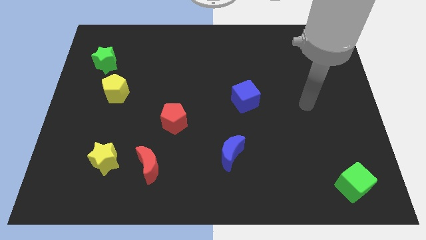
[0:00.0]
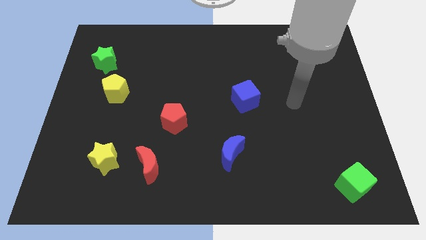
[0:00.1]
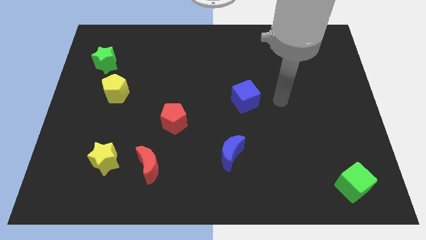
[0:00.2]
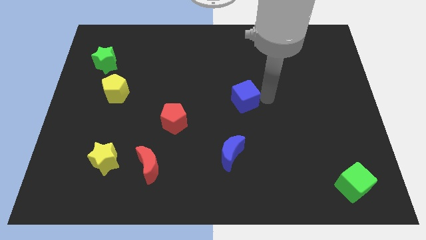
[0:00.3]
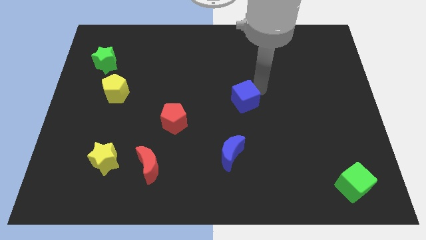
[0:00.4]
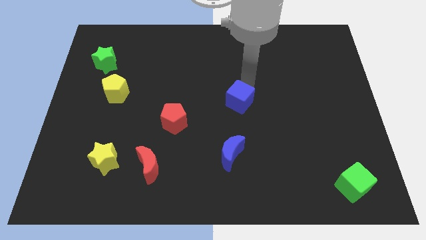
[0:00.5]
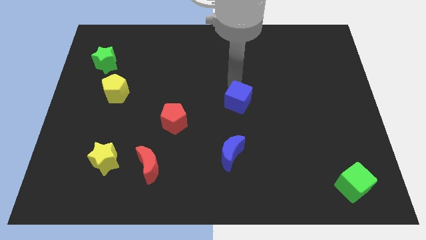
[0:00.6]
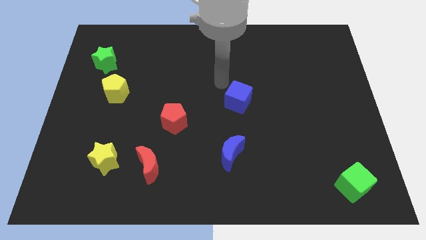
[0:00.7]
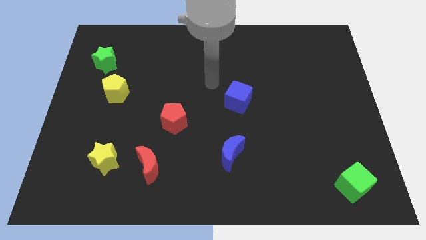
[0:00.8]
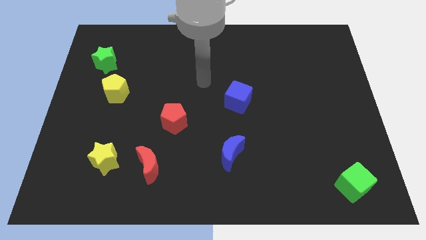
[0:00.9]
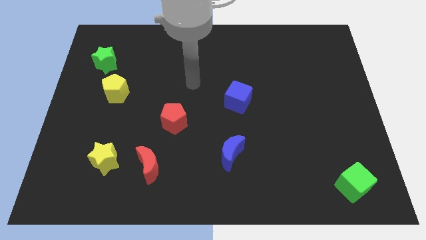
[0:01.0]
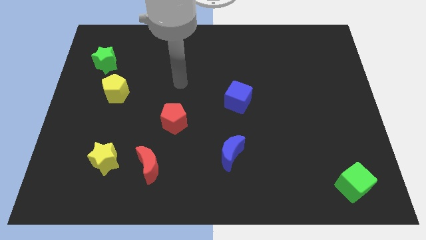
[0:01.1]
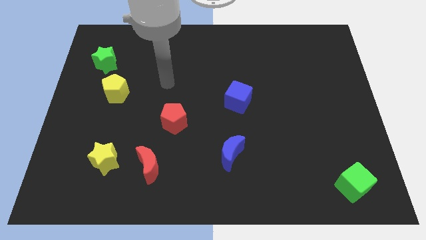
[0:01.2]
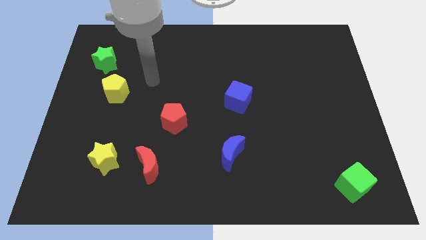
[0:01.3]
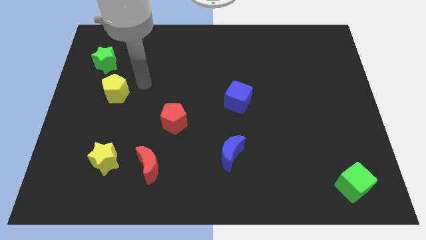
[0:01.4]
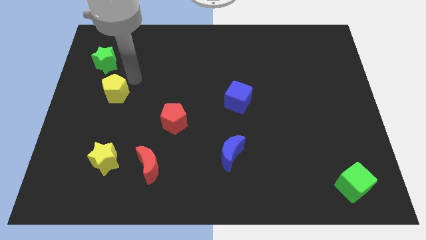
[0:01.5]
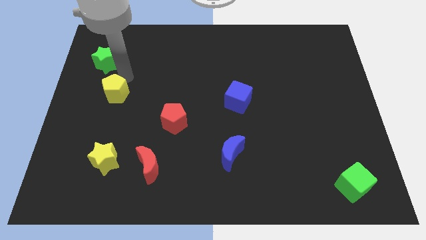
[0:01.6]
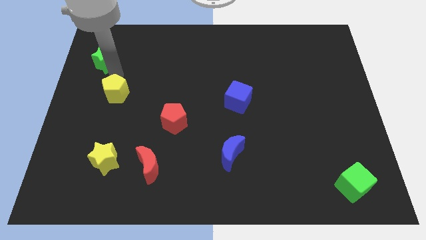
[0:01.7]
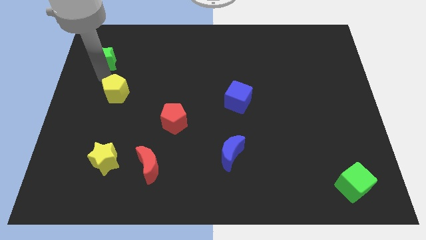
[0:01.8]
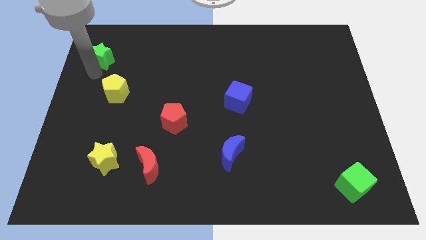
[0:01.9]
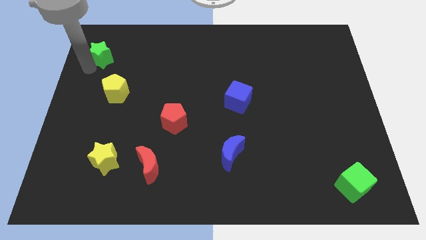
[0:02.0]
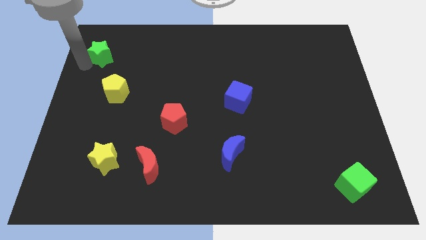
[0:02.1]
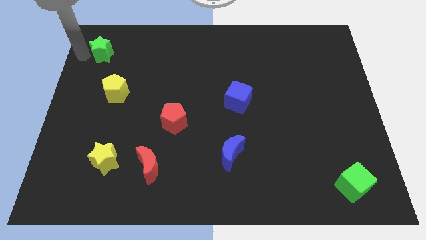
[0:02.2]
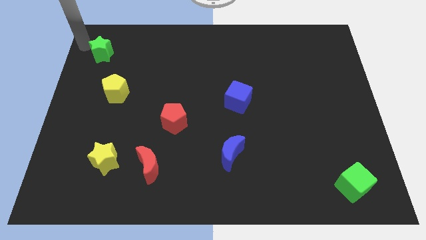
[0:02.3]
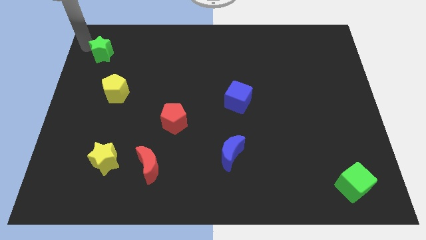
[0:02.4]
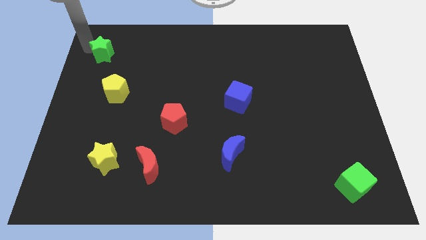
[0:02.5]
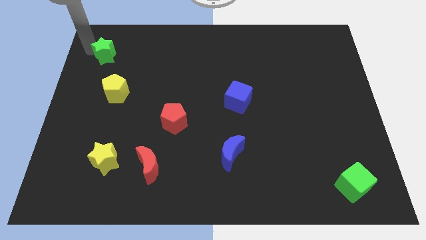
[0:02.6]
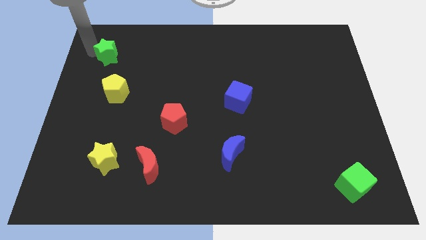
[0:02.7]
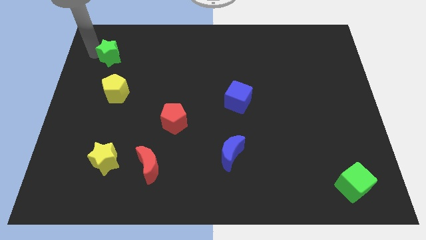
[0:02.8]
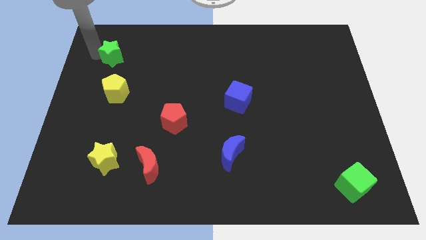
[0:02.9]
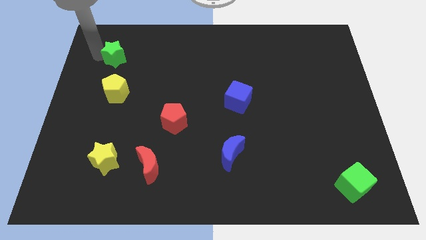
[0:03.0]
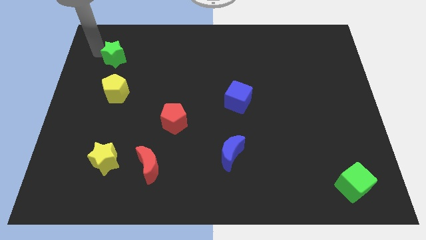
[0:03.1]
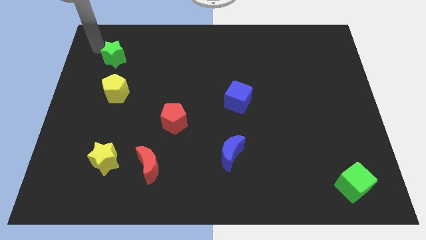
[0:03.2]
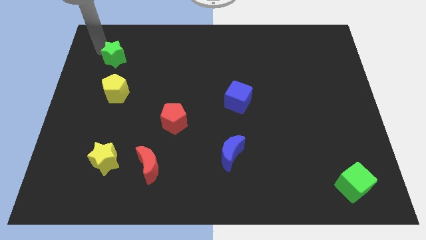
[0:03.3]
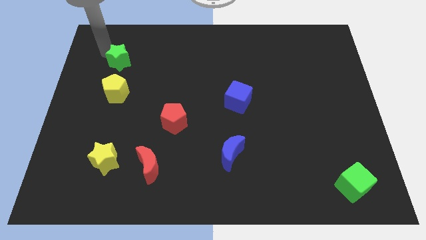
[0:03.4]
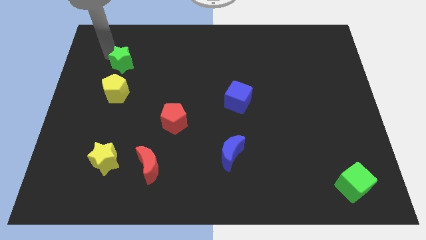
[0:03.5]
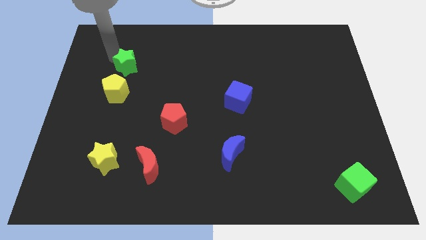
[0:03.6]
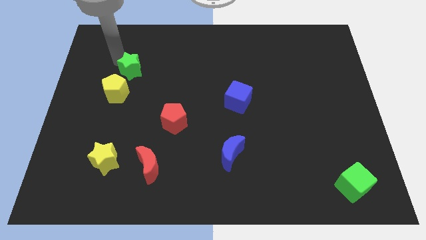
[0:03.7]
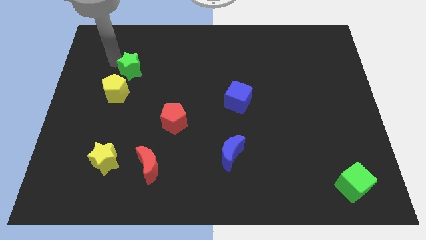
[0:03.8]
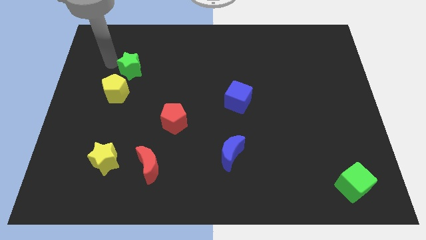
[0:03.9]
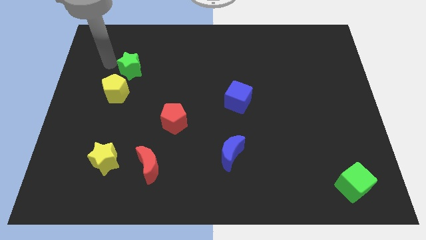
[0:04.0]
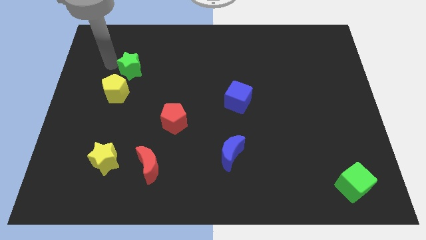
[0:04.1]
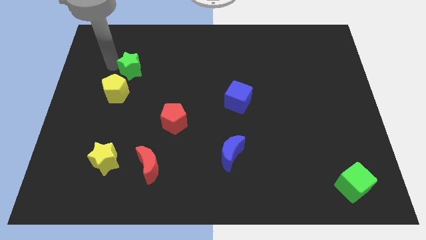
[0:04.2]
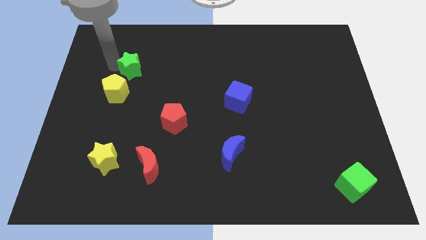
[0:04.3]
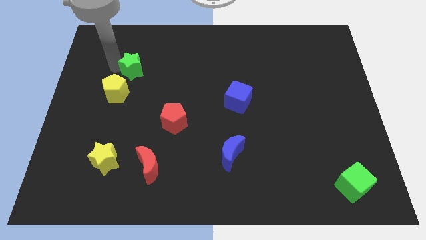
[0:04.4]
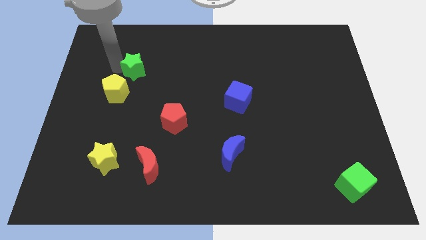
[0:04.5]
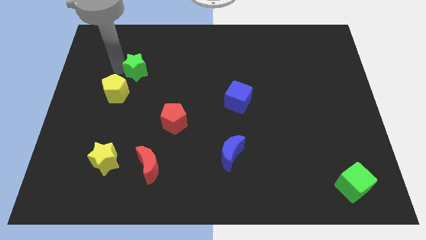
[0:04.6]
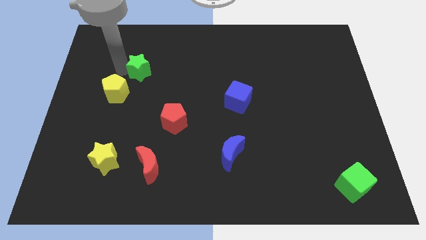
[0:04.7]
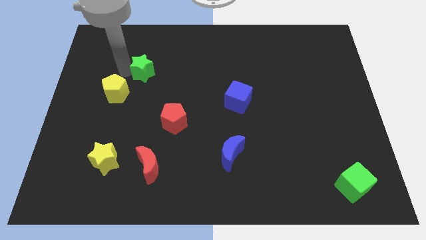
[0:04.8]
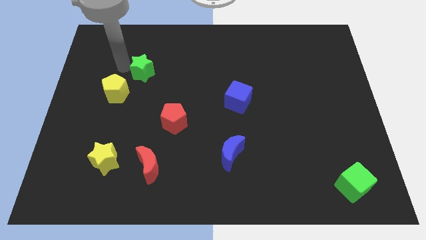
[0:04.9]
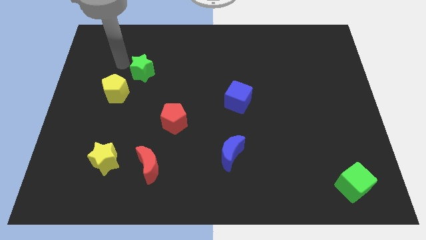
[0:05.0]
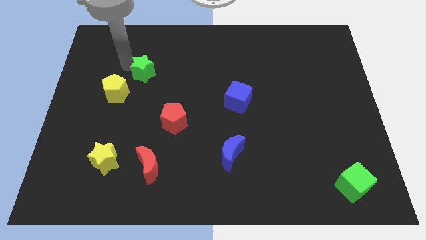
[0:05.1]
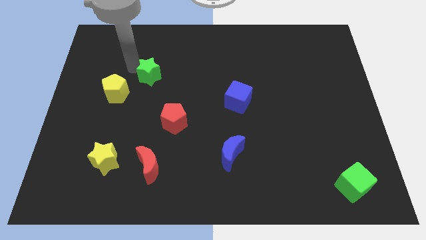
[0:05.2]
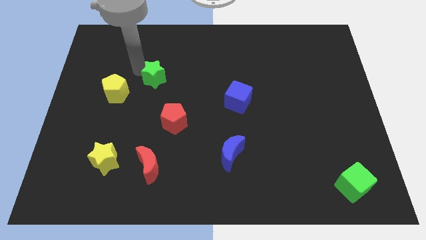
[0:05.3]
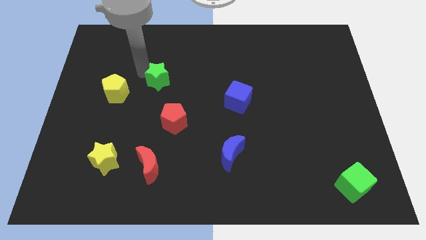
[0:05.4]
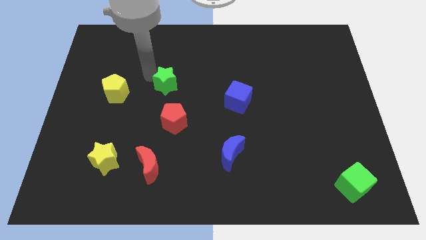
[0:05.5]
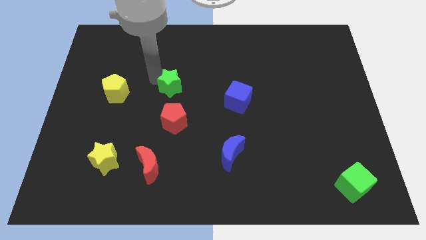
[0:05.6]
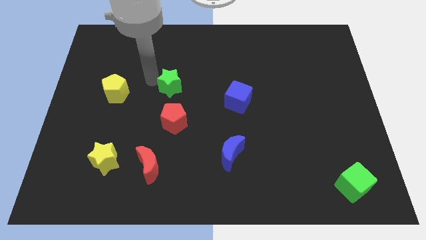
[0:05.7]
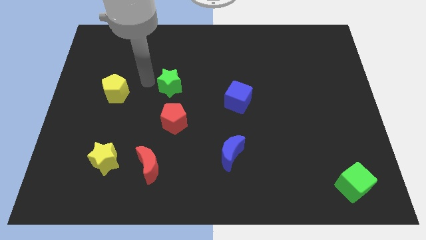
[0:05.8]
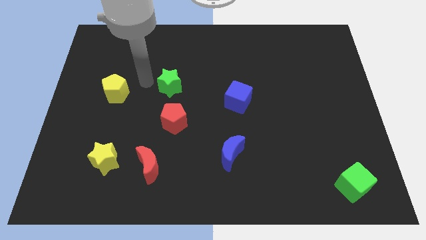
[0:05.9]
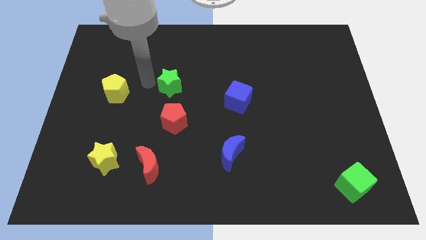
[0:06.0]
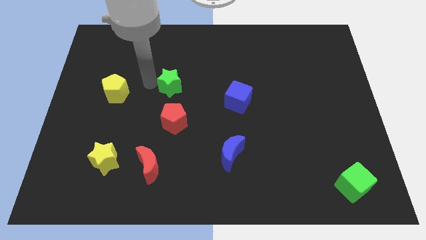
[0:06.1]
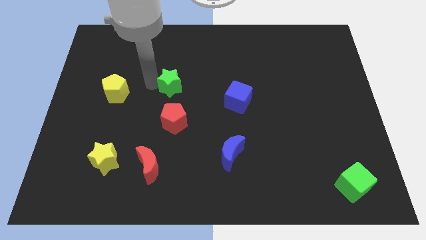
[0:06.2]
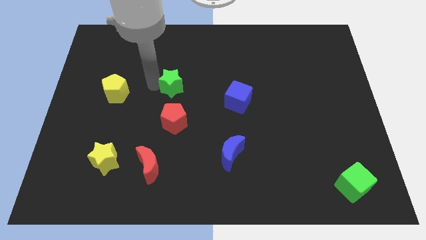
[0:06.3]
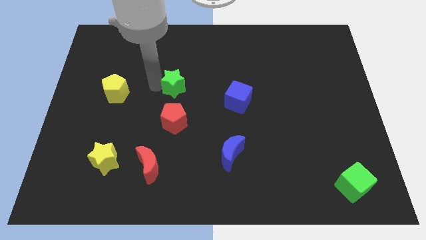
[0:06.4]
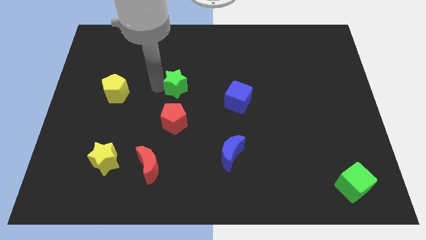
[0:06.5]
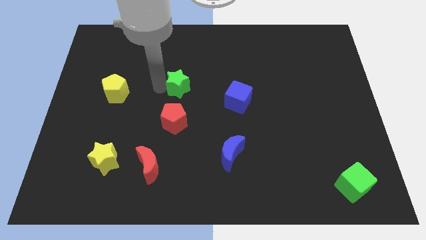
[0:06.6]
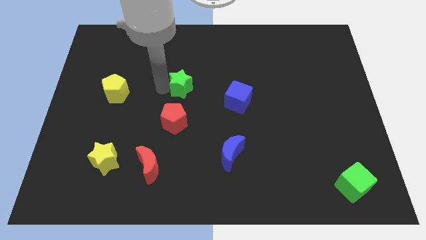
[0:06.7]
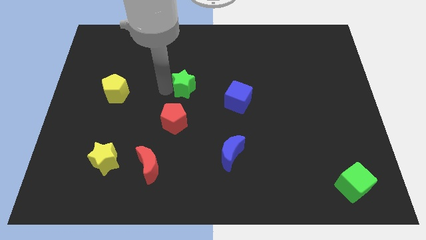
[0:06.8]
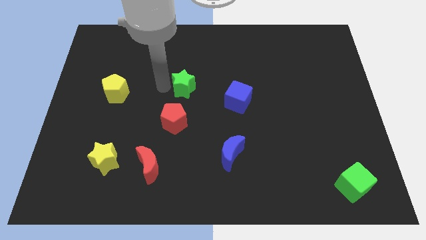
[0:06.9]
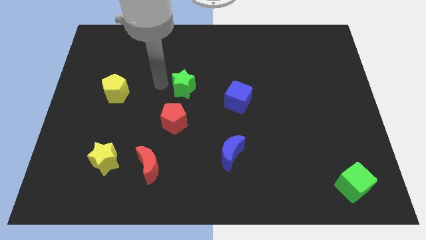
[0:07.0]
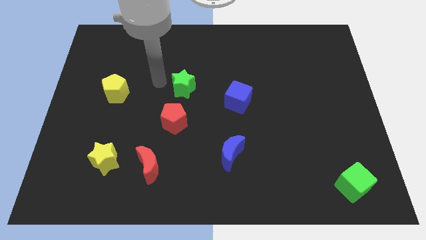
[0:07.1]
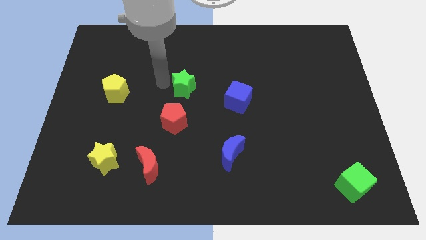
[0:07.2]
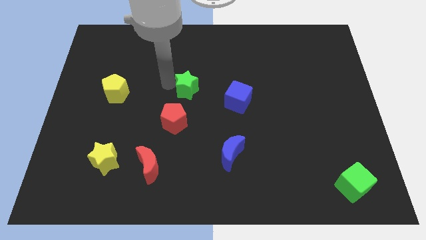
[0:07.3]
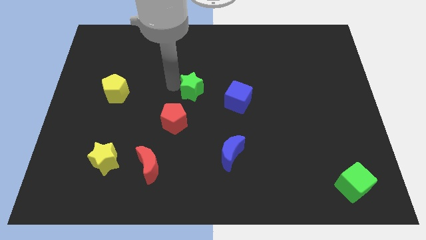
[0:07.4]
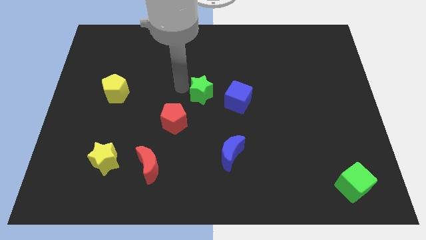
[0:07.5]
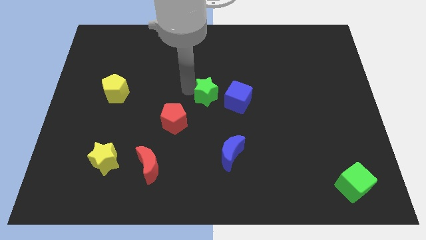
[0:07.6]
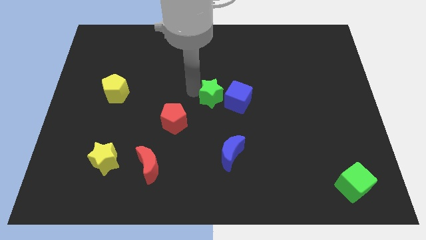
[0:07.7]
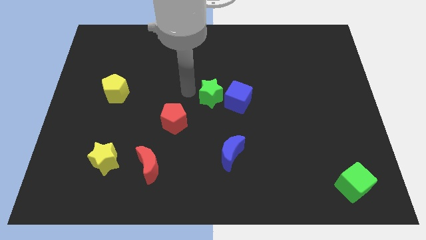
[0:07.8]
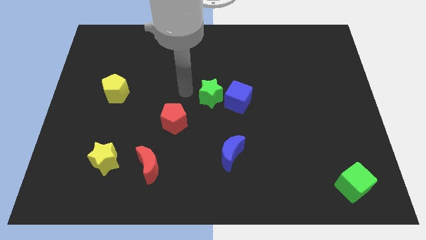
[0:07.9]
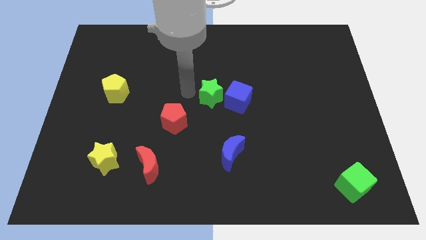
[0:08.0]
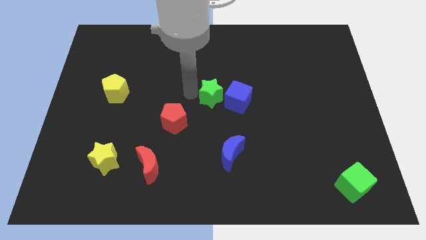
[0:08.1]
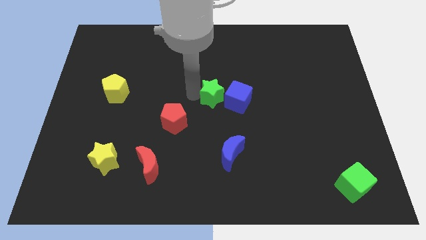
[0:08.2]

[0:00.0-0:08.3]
move the green star to the blue cube
